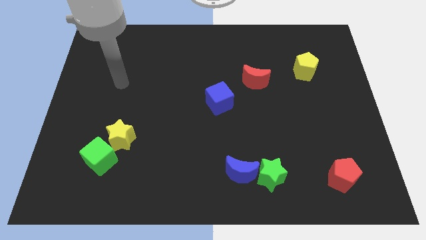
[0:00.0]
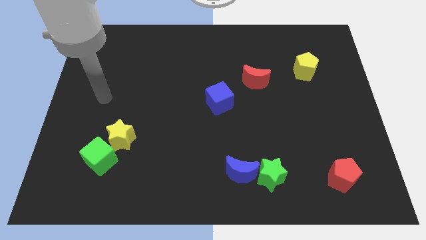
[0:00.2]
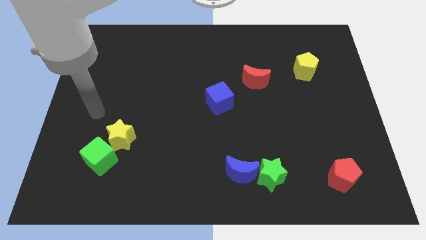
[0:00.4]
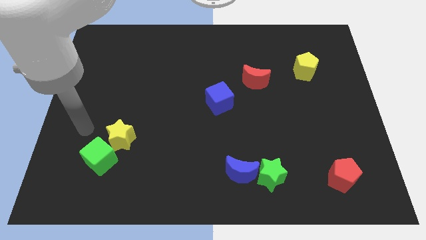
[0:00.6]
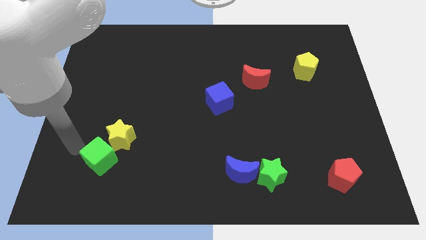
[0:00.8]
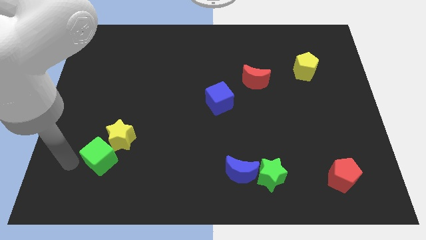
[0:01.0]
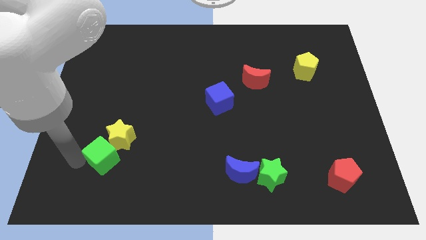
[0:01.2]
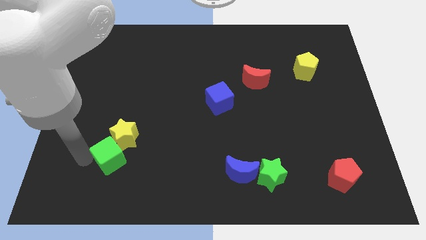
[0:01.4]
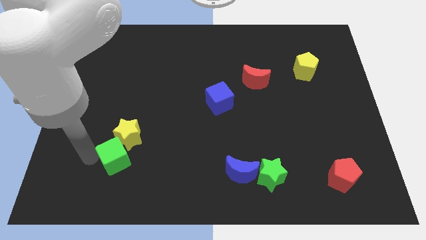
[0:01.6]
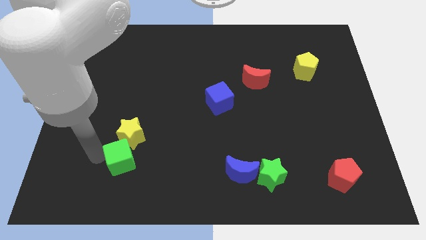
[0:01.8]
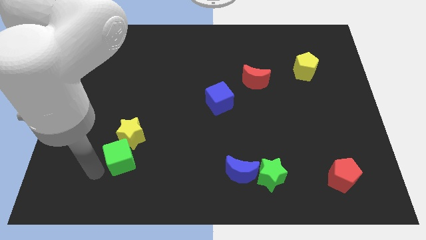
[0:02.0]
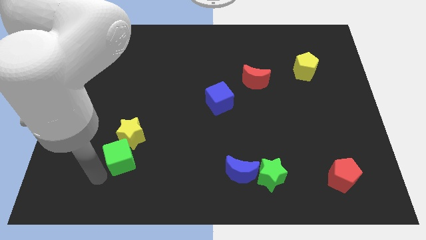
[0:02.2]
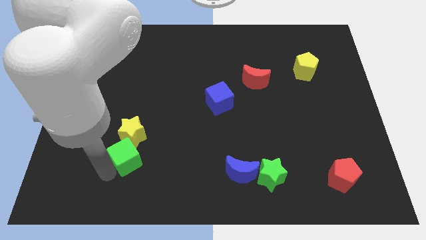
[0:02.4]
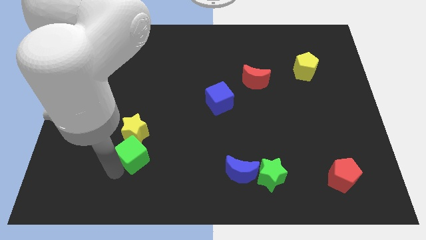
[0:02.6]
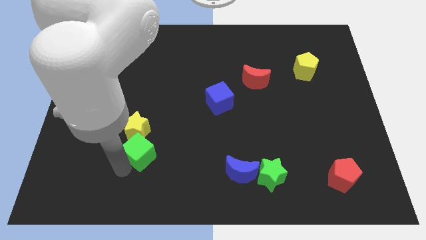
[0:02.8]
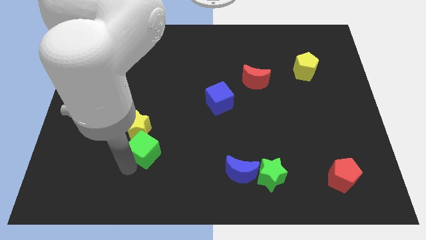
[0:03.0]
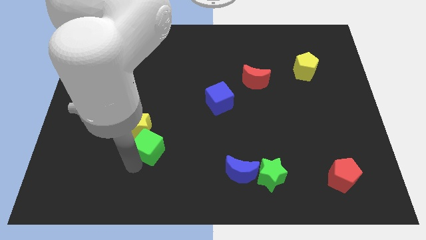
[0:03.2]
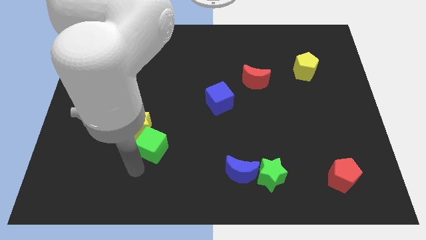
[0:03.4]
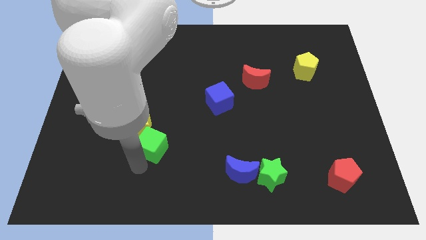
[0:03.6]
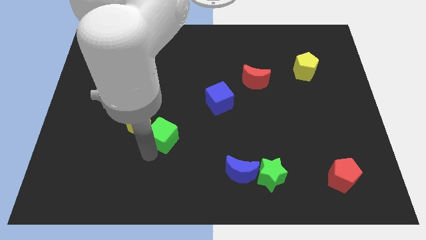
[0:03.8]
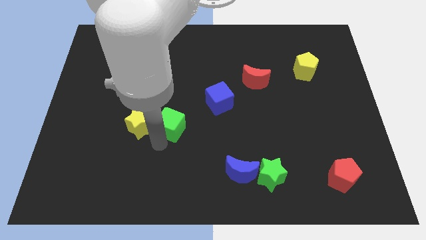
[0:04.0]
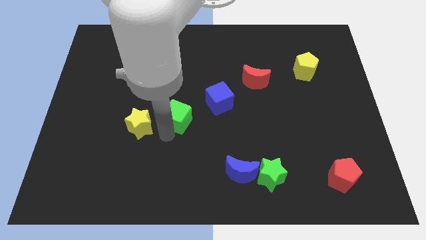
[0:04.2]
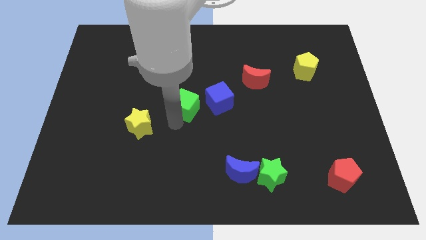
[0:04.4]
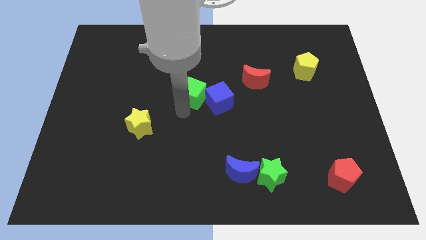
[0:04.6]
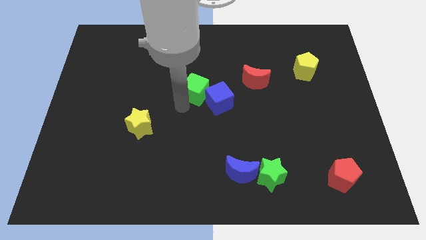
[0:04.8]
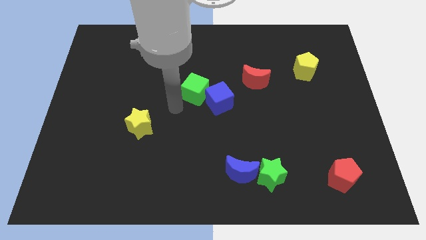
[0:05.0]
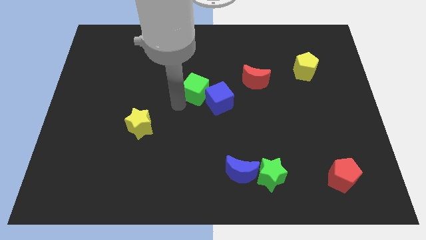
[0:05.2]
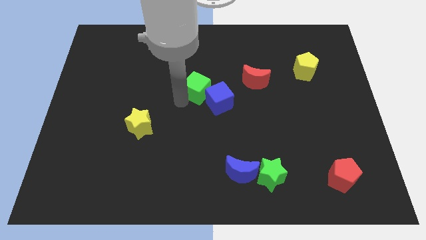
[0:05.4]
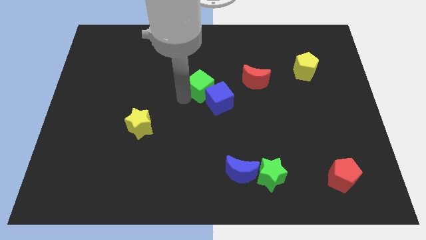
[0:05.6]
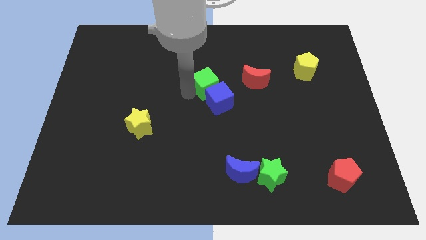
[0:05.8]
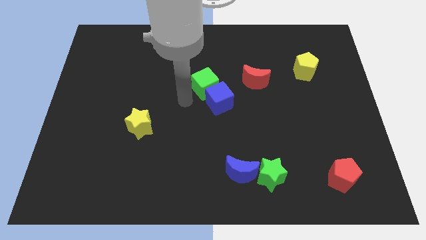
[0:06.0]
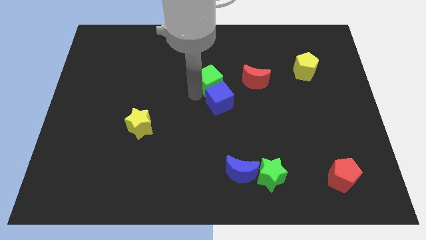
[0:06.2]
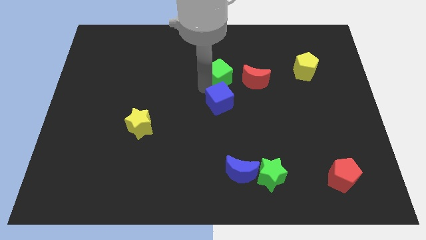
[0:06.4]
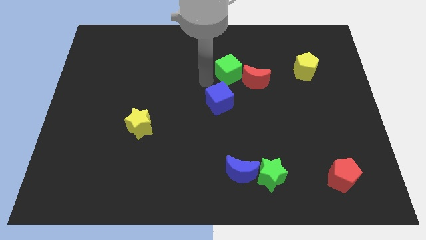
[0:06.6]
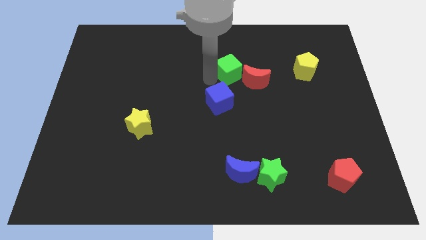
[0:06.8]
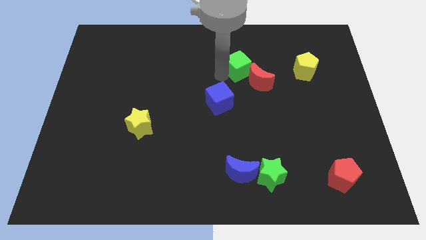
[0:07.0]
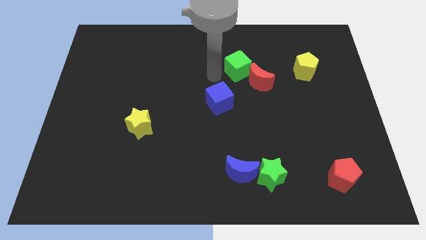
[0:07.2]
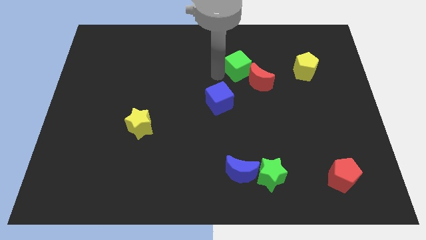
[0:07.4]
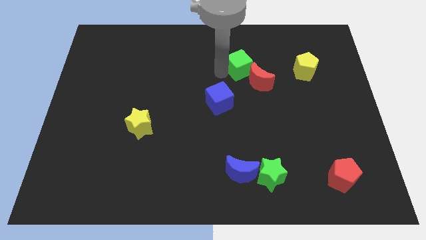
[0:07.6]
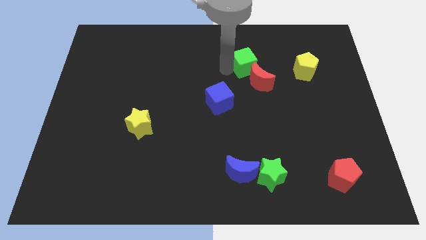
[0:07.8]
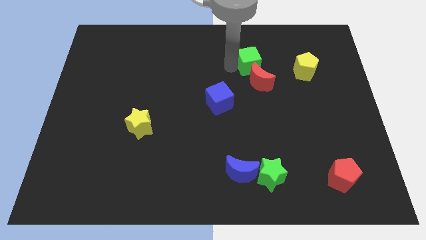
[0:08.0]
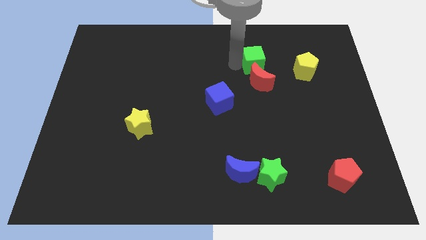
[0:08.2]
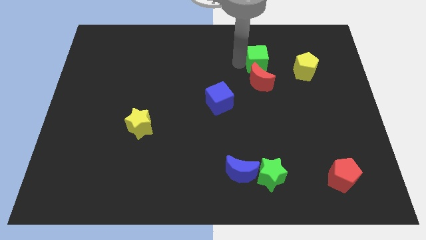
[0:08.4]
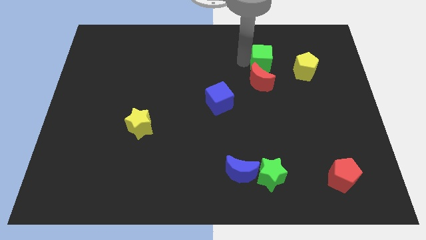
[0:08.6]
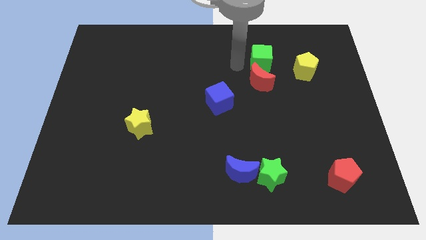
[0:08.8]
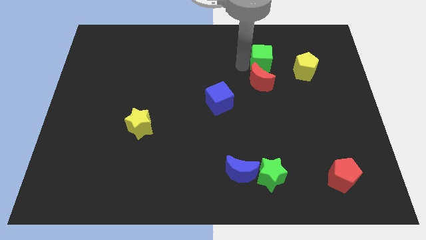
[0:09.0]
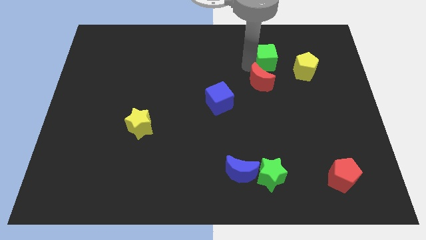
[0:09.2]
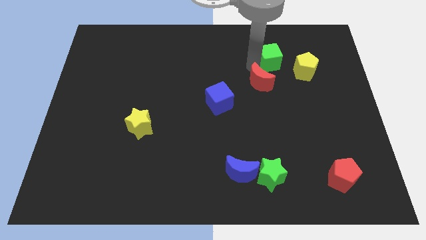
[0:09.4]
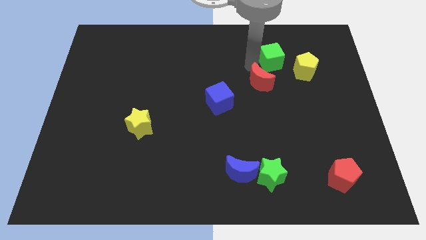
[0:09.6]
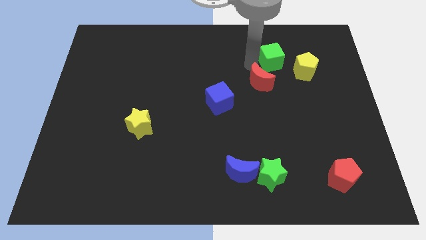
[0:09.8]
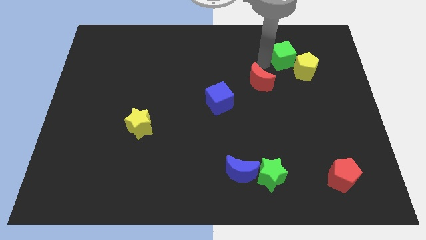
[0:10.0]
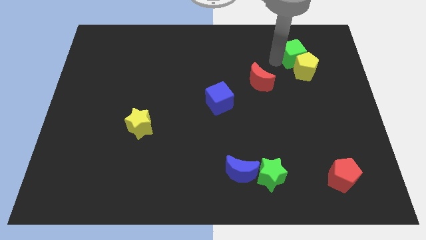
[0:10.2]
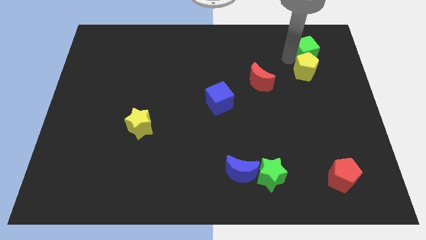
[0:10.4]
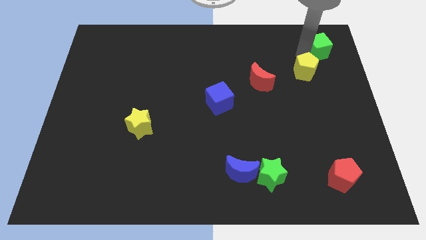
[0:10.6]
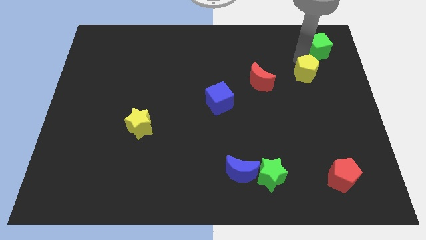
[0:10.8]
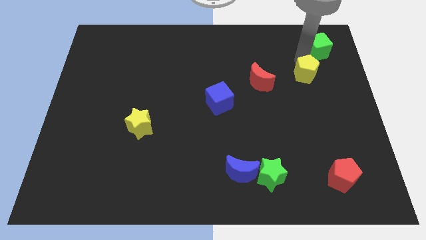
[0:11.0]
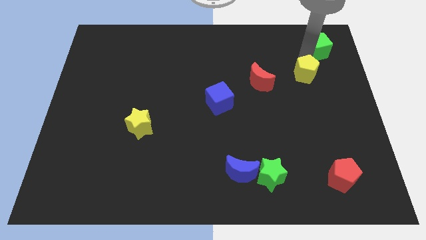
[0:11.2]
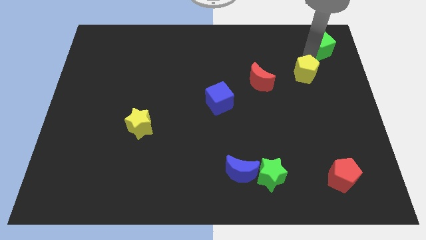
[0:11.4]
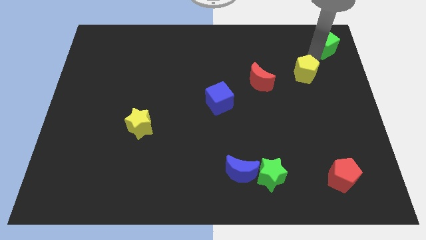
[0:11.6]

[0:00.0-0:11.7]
put the green cube to the top right of the board
